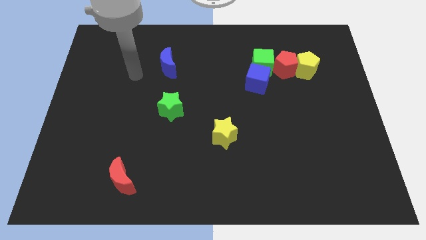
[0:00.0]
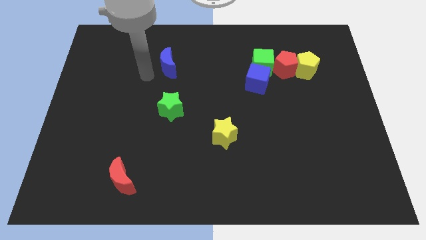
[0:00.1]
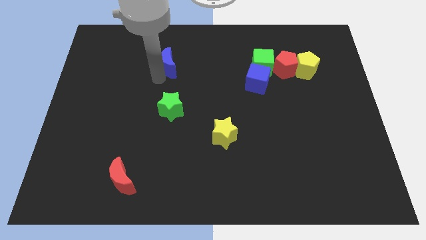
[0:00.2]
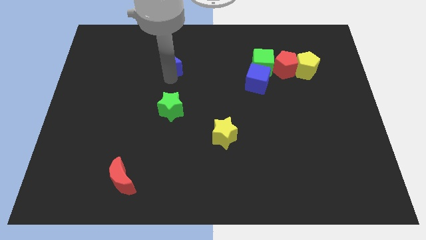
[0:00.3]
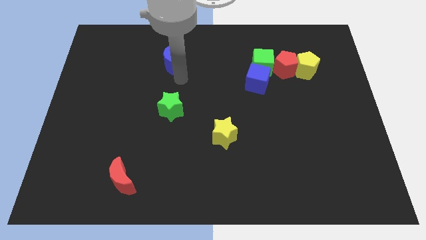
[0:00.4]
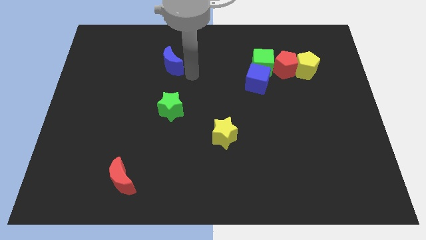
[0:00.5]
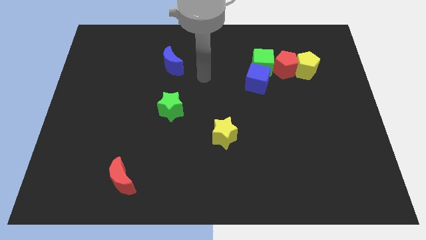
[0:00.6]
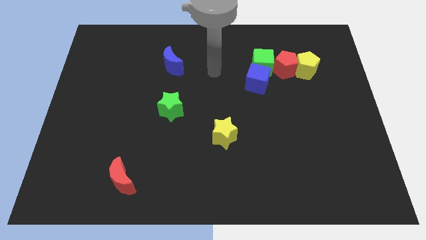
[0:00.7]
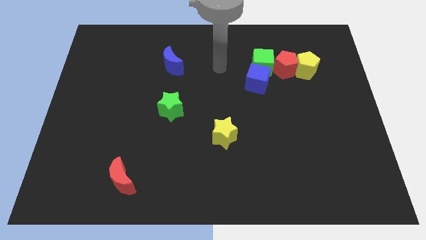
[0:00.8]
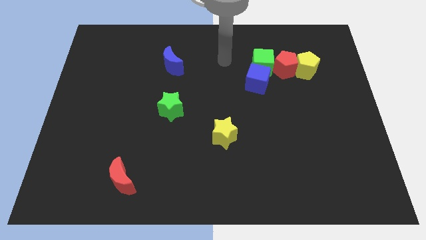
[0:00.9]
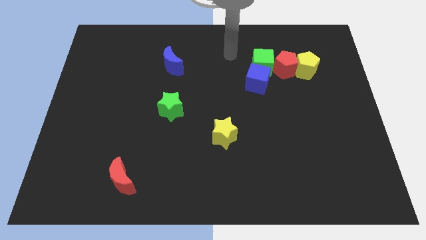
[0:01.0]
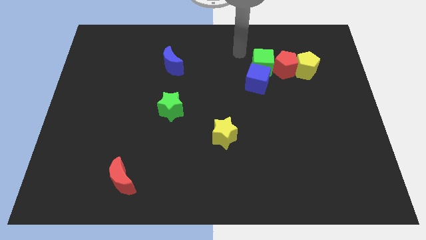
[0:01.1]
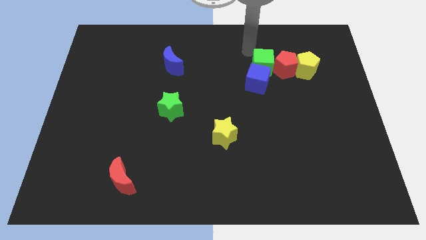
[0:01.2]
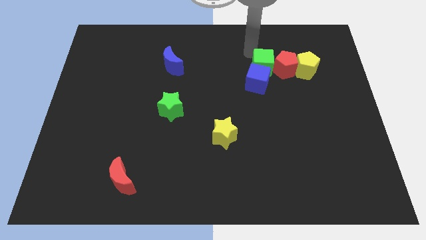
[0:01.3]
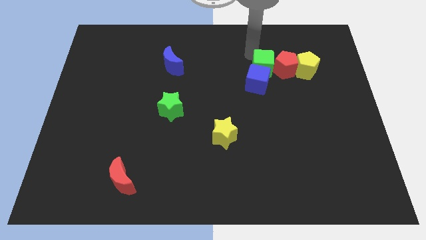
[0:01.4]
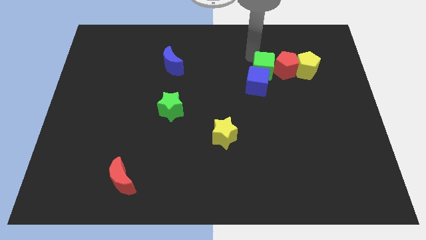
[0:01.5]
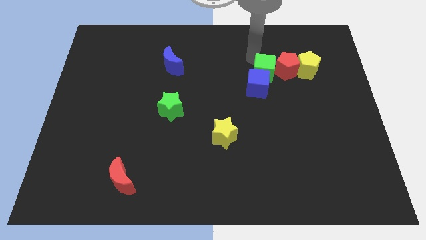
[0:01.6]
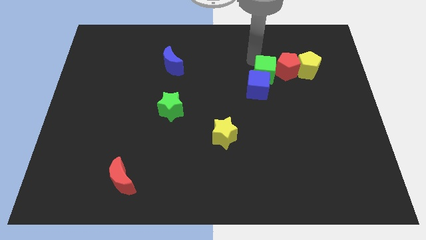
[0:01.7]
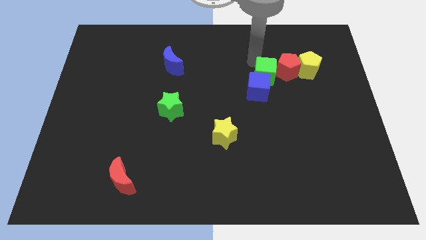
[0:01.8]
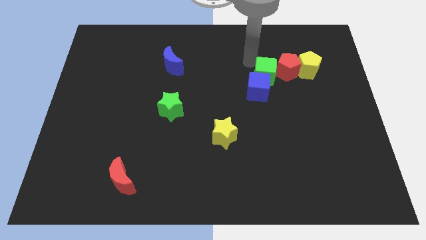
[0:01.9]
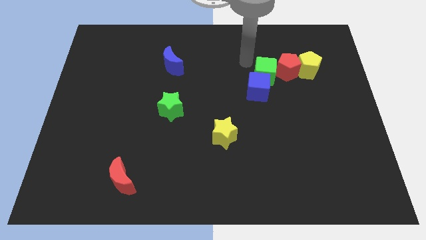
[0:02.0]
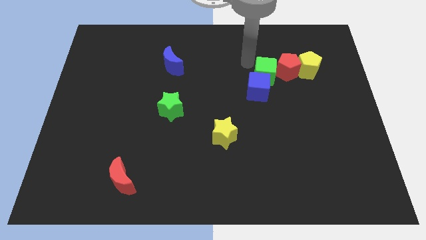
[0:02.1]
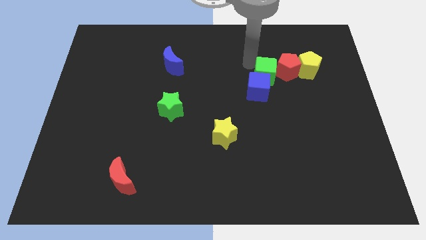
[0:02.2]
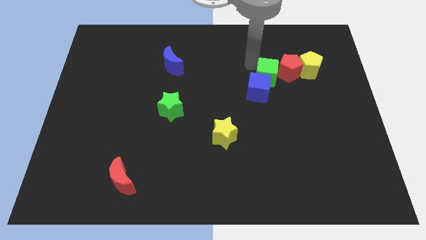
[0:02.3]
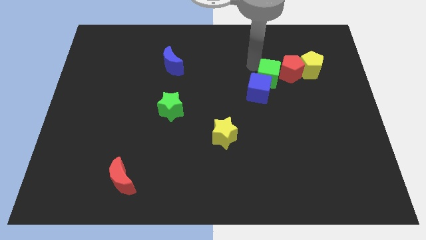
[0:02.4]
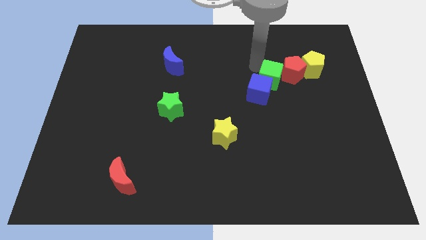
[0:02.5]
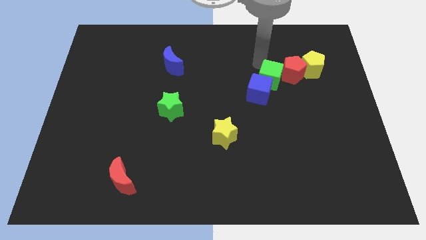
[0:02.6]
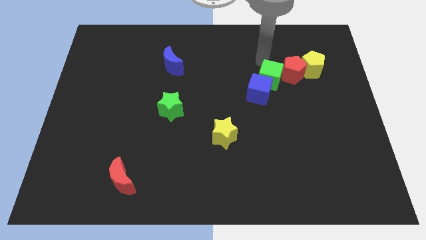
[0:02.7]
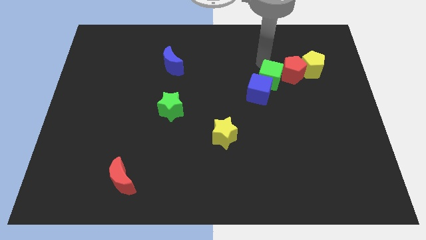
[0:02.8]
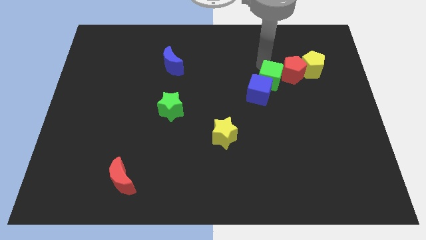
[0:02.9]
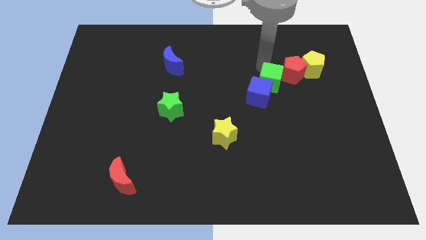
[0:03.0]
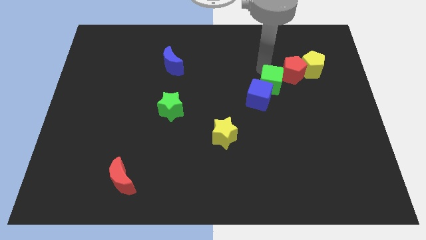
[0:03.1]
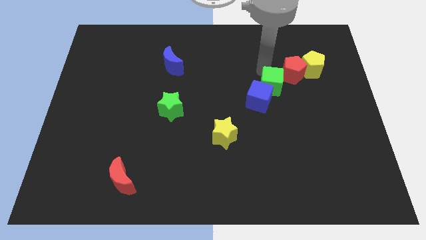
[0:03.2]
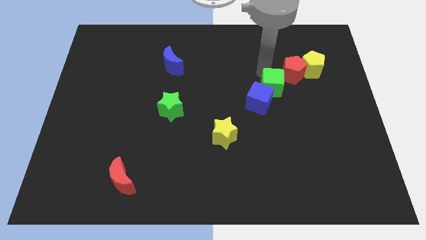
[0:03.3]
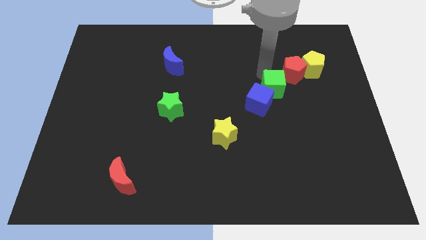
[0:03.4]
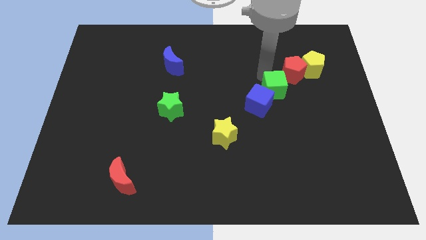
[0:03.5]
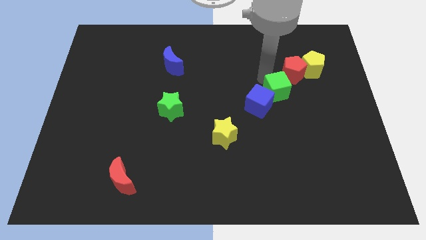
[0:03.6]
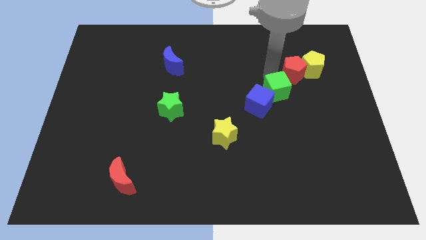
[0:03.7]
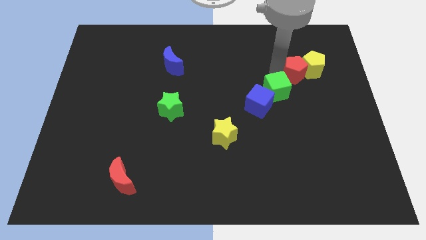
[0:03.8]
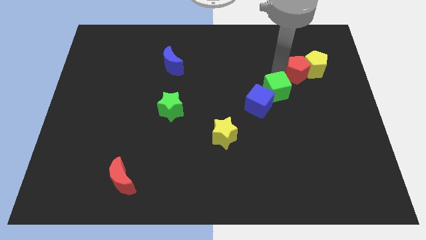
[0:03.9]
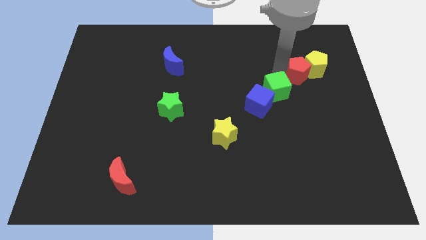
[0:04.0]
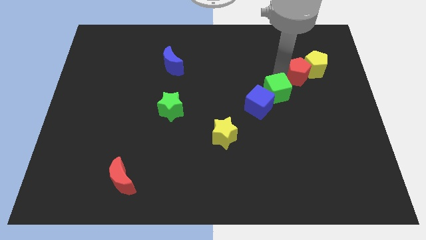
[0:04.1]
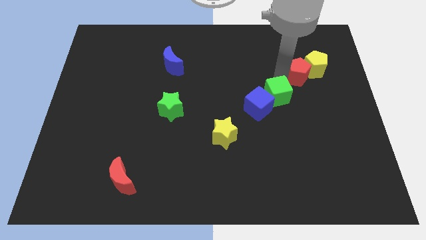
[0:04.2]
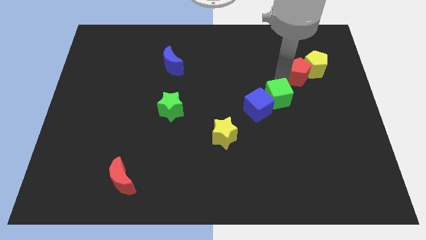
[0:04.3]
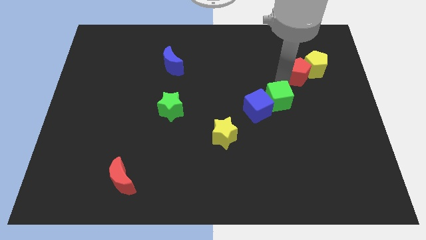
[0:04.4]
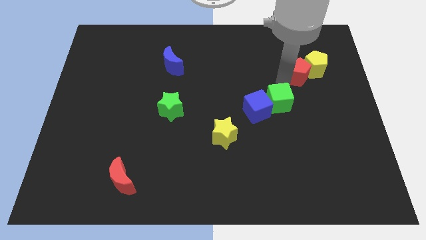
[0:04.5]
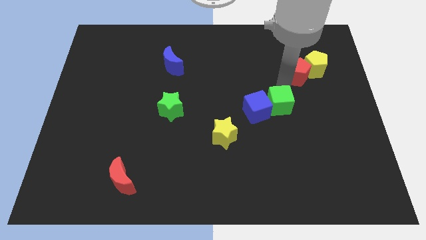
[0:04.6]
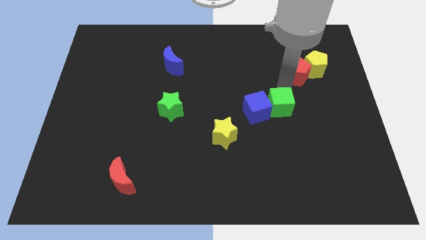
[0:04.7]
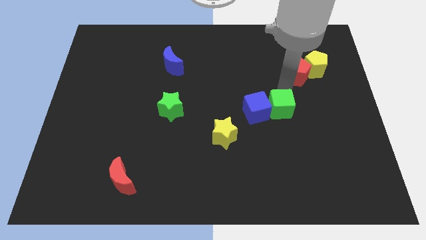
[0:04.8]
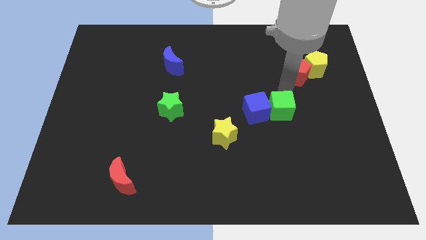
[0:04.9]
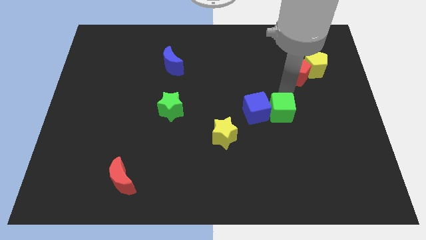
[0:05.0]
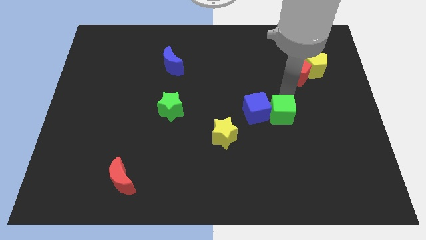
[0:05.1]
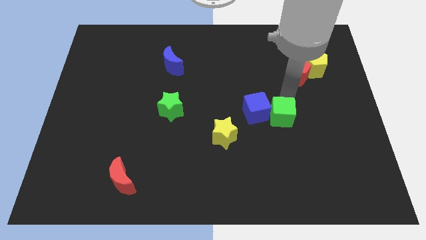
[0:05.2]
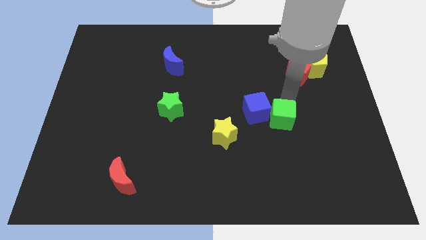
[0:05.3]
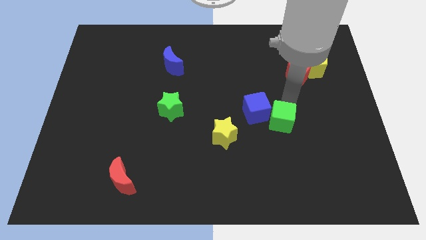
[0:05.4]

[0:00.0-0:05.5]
move the green cube to the right of the yellow star

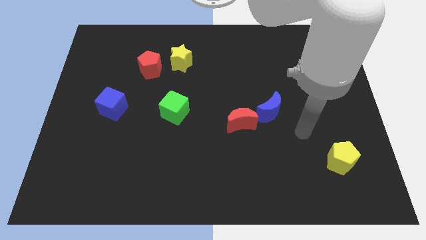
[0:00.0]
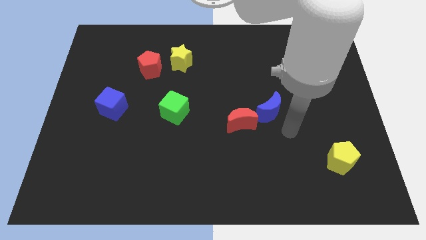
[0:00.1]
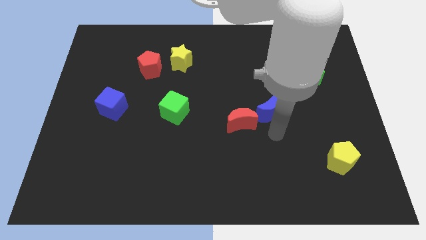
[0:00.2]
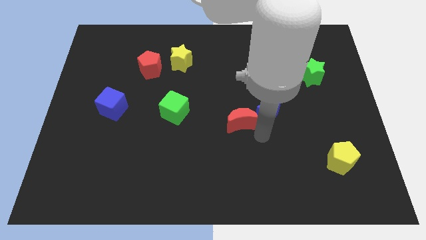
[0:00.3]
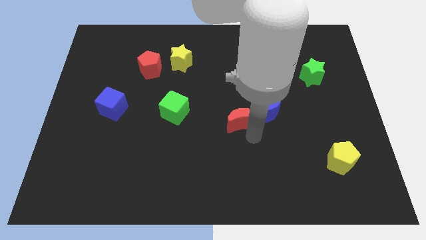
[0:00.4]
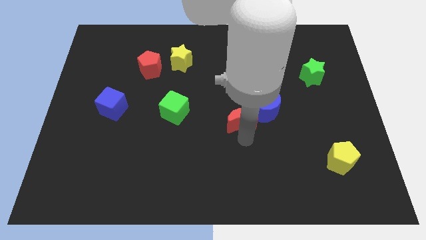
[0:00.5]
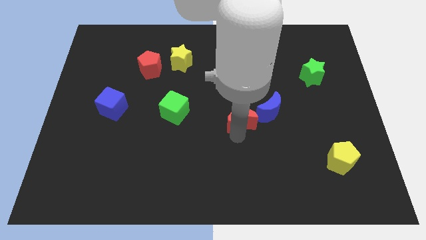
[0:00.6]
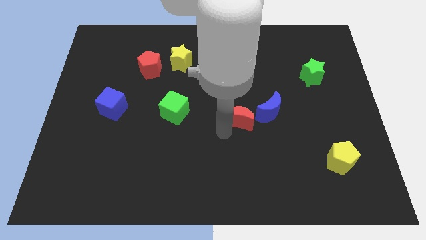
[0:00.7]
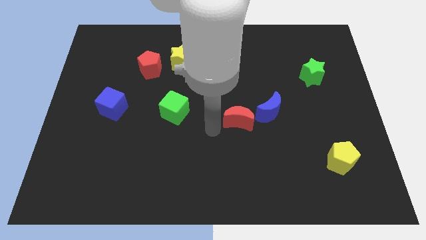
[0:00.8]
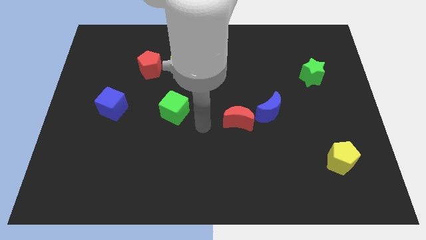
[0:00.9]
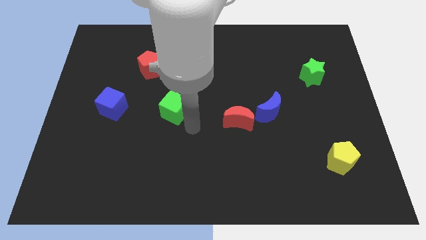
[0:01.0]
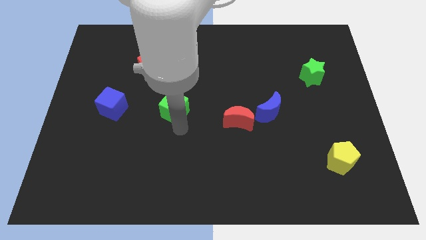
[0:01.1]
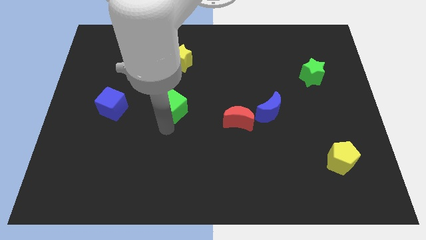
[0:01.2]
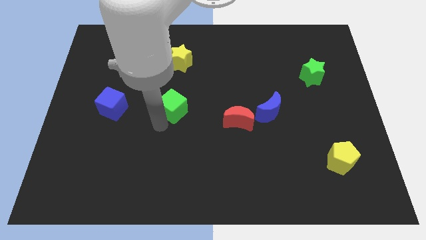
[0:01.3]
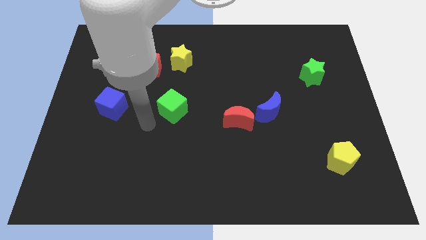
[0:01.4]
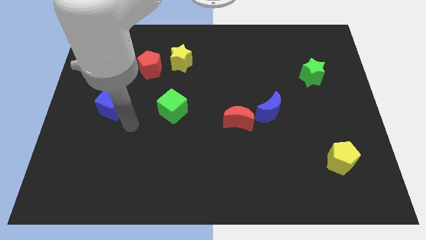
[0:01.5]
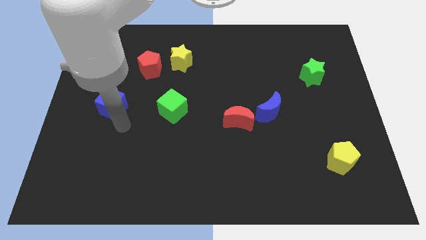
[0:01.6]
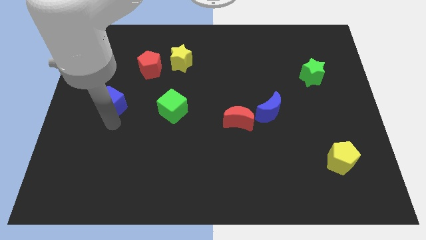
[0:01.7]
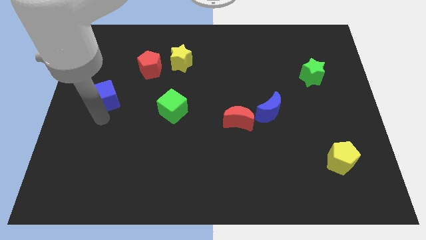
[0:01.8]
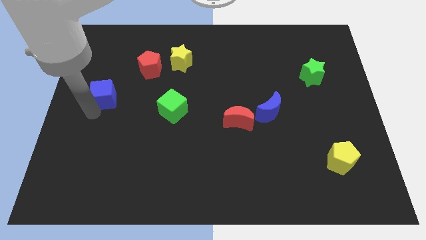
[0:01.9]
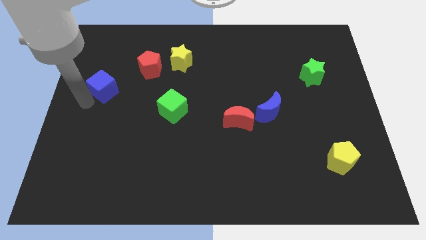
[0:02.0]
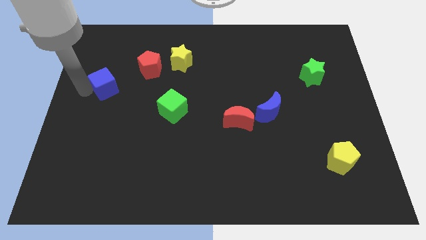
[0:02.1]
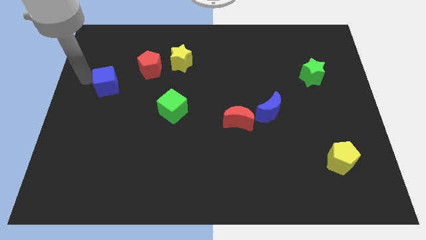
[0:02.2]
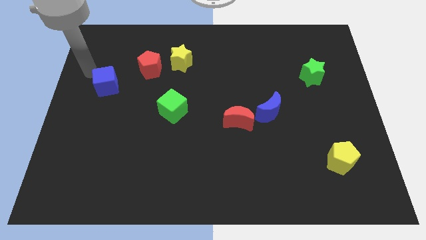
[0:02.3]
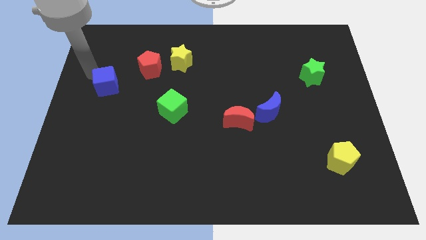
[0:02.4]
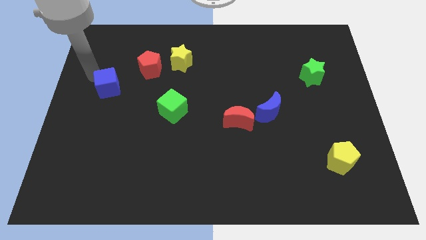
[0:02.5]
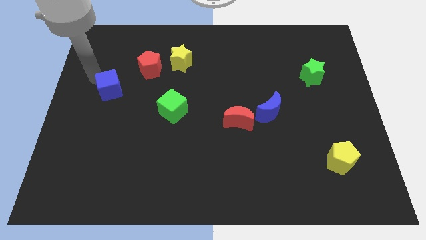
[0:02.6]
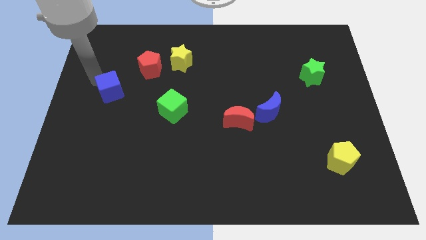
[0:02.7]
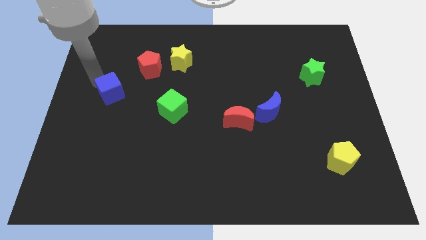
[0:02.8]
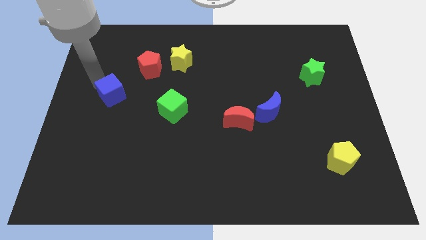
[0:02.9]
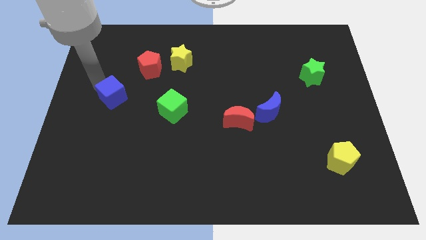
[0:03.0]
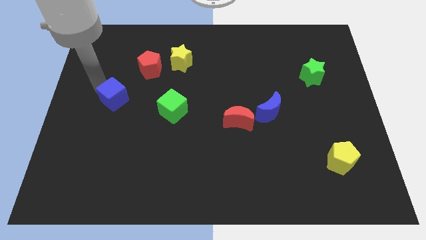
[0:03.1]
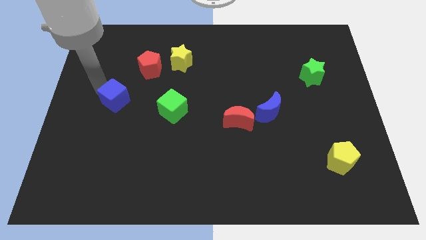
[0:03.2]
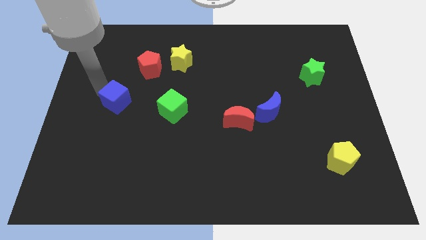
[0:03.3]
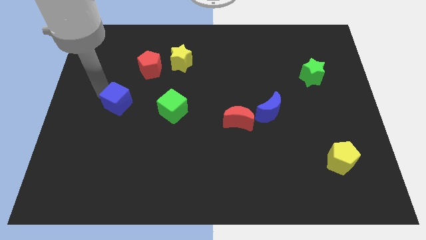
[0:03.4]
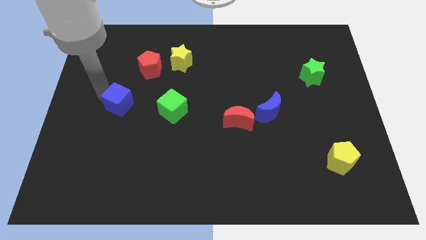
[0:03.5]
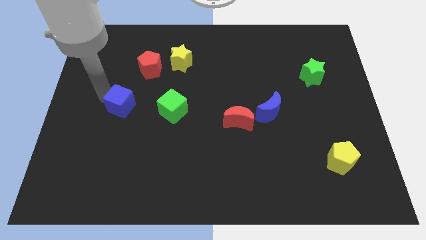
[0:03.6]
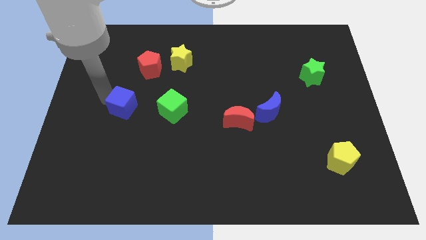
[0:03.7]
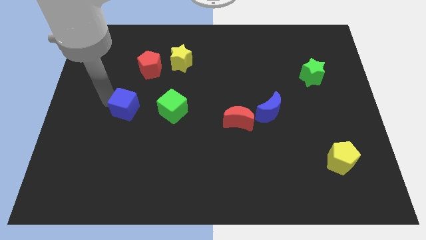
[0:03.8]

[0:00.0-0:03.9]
slide the blue cube below the red pentagon
